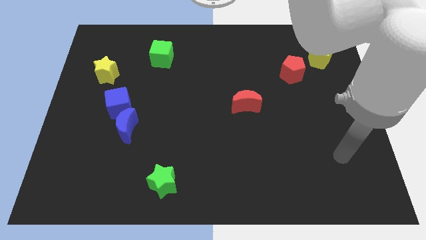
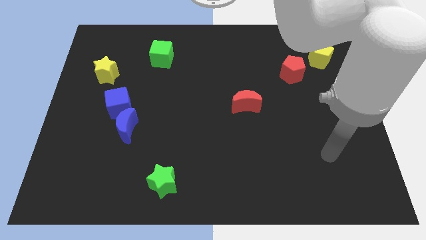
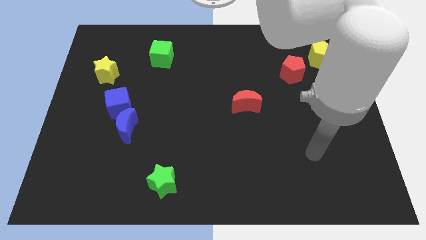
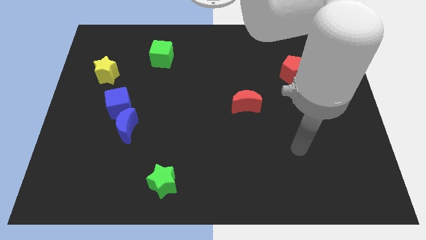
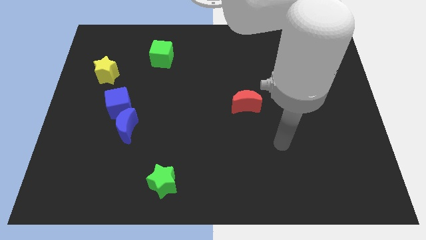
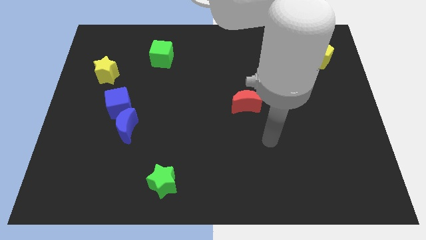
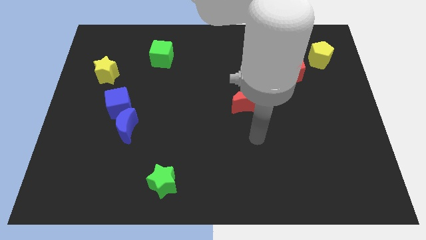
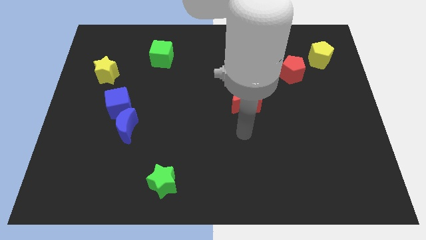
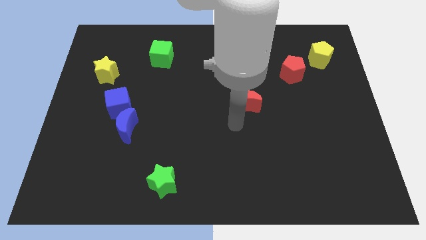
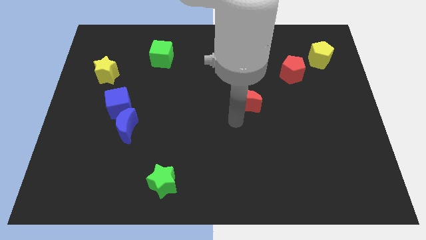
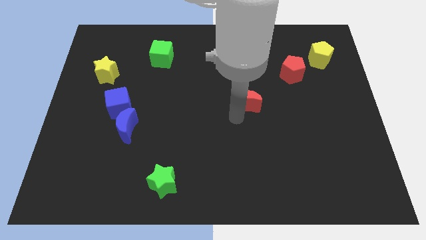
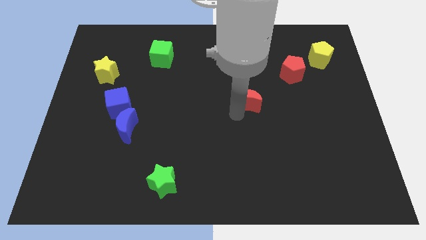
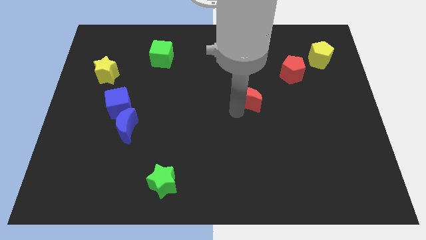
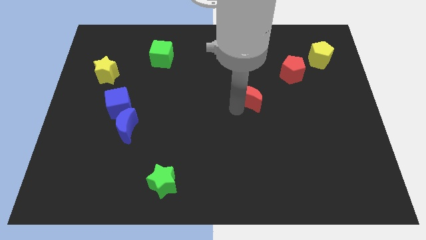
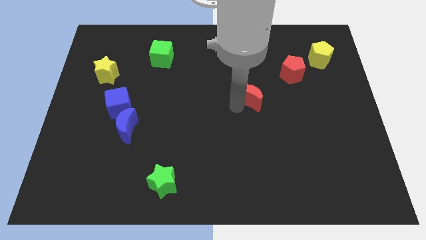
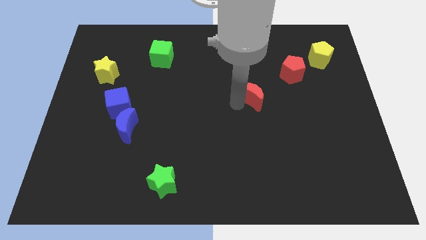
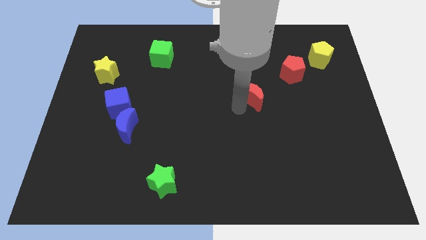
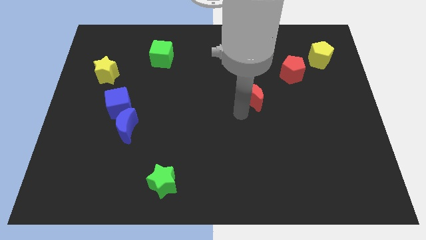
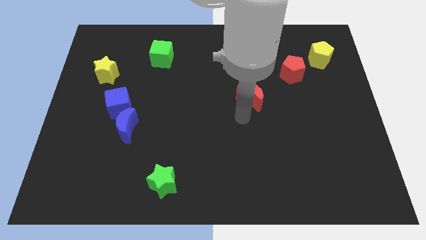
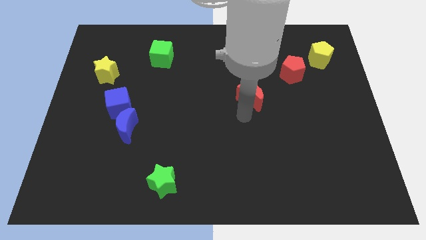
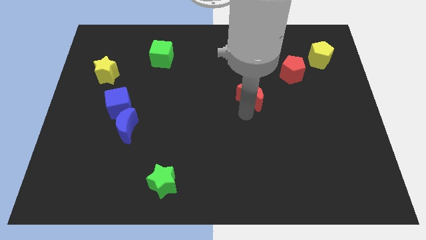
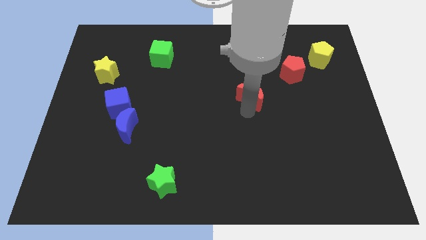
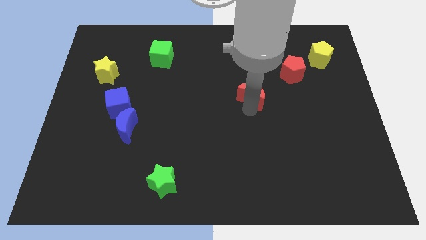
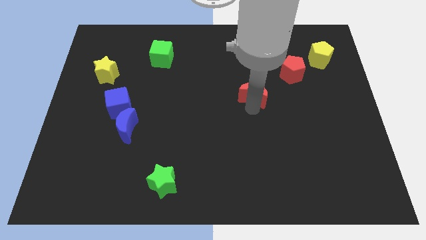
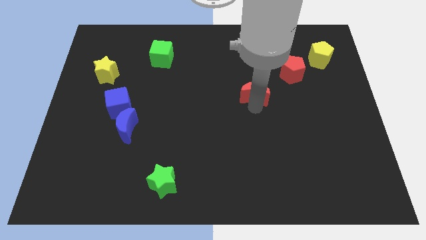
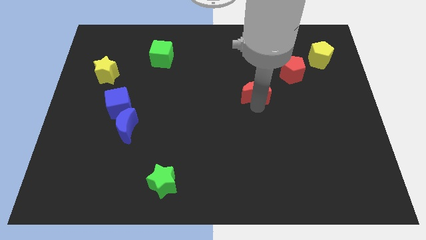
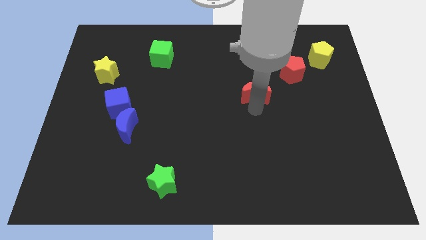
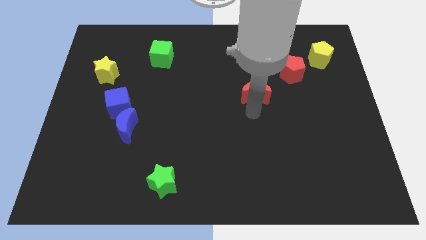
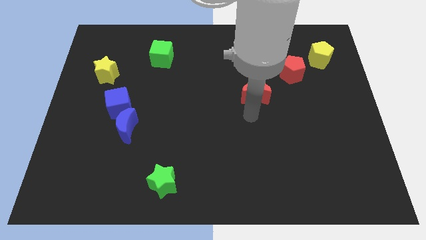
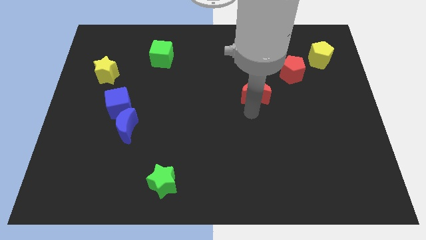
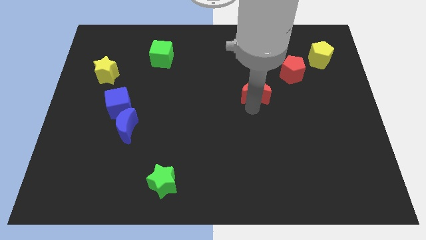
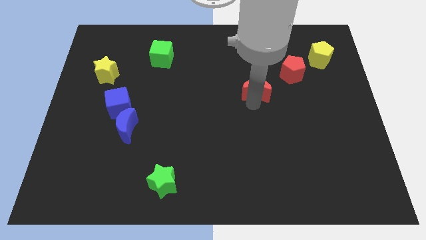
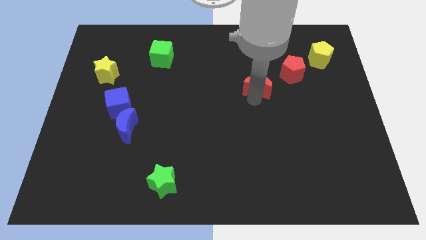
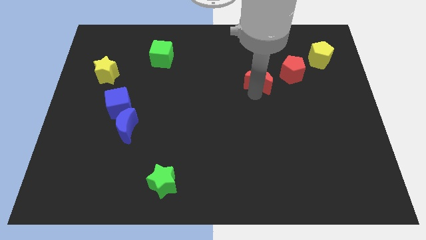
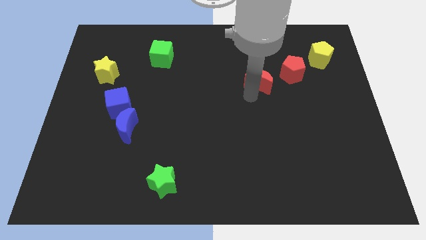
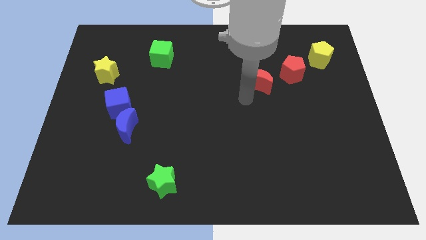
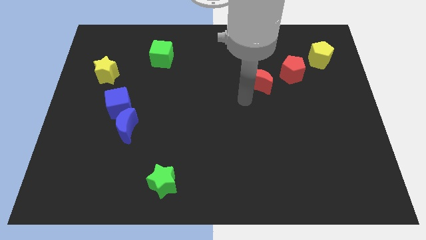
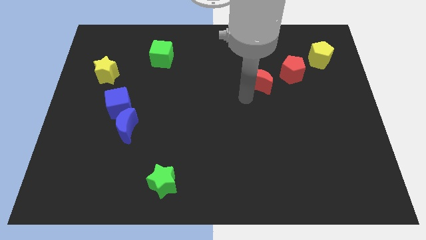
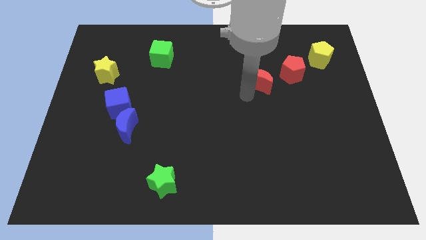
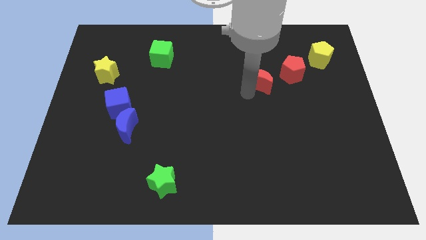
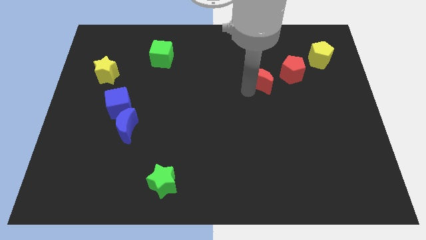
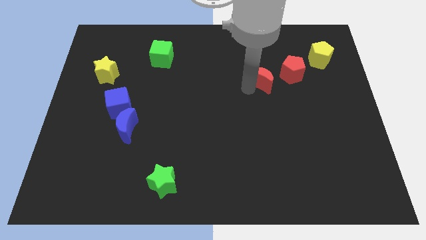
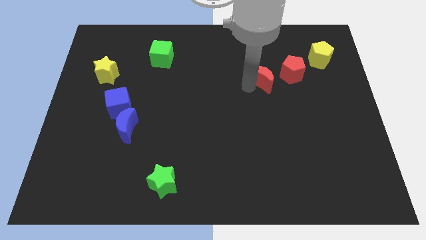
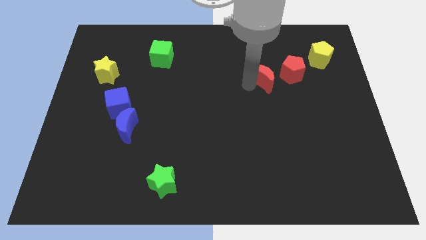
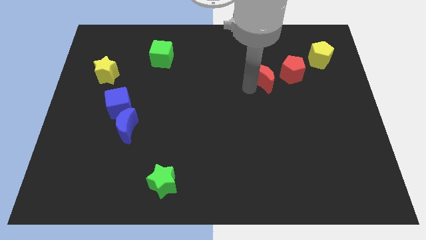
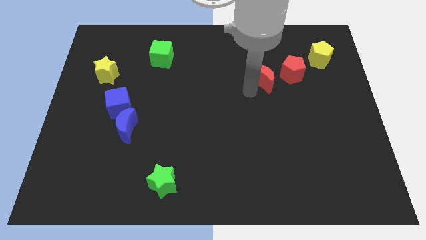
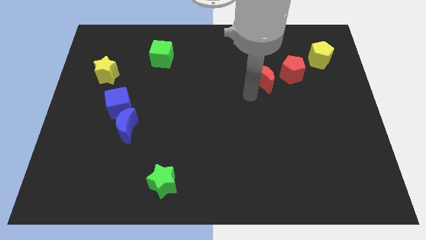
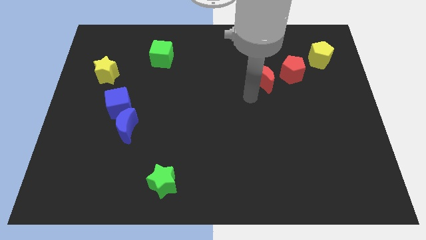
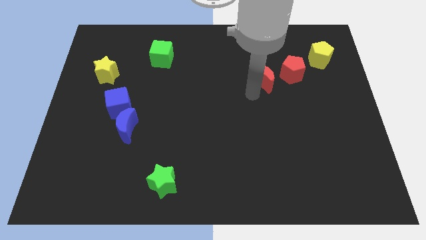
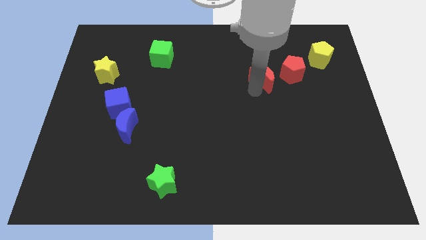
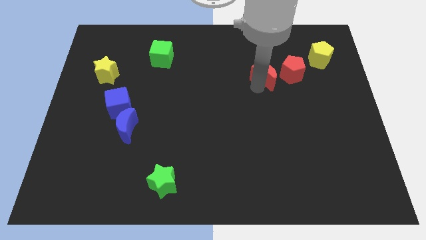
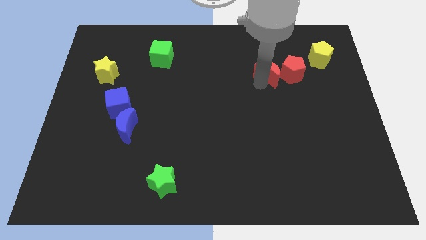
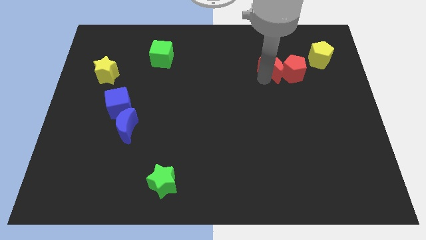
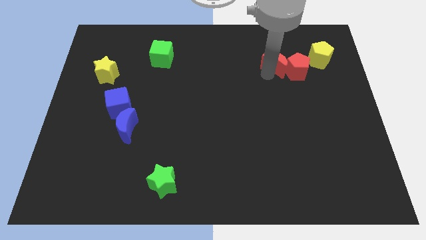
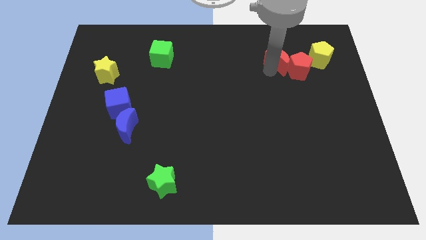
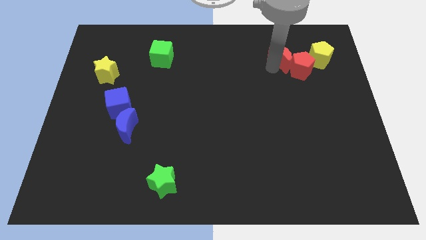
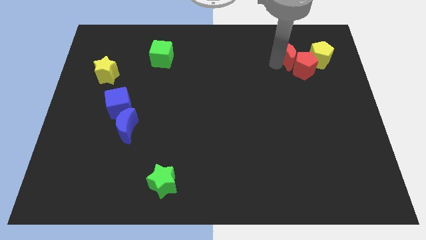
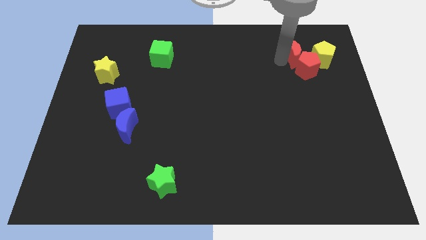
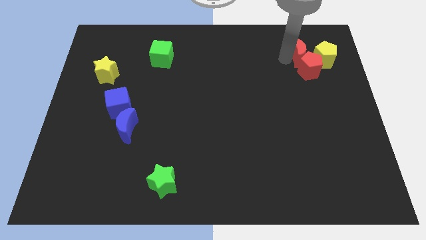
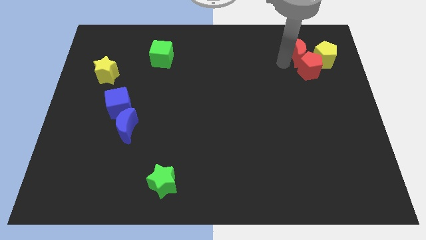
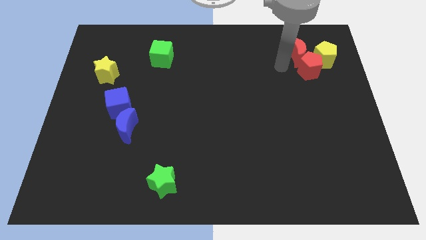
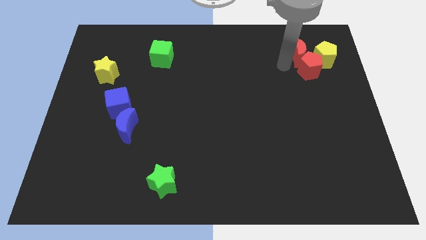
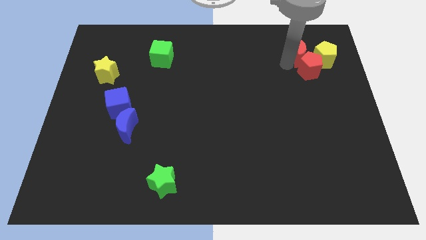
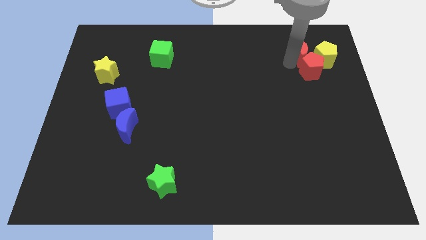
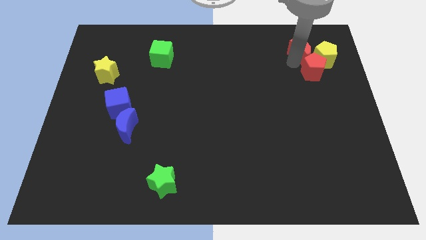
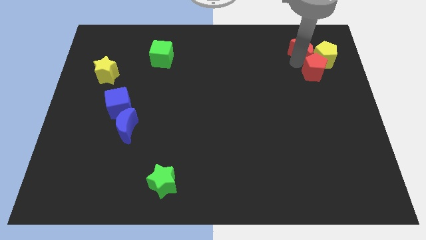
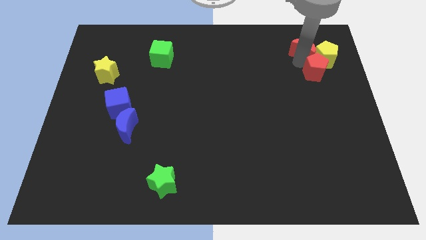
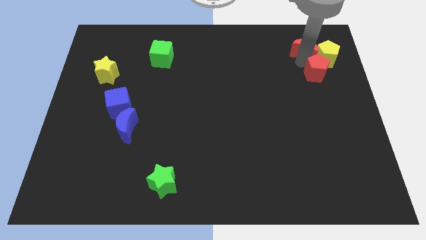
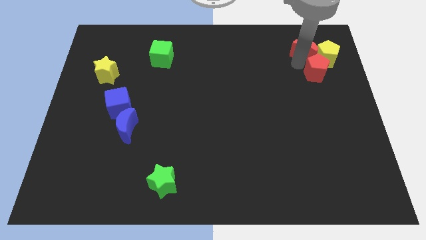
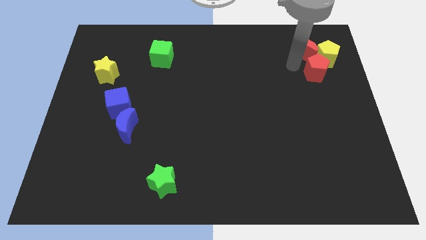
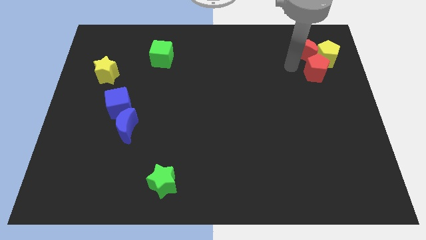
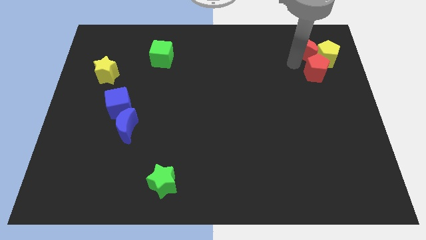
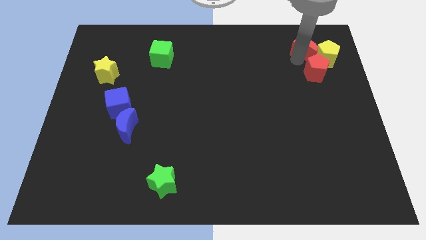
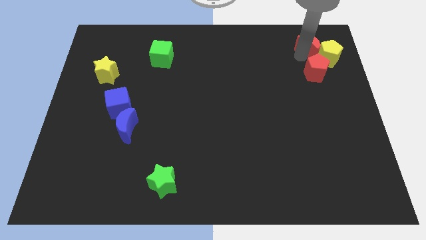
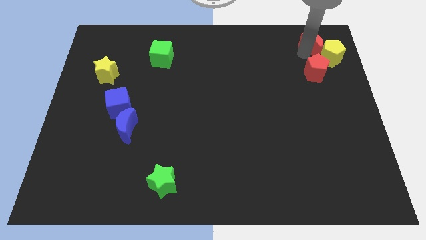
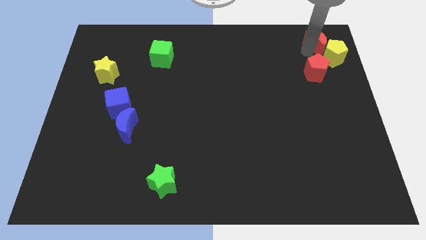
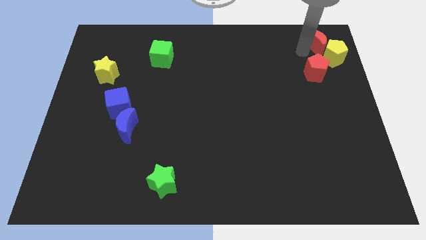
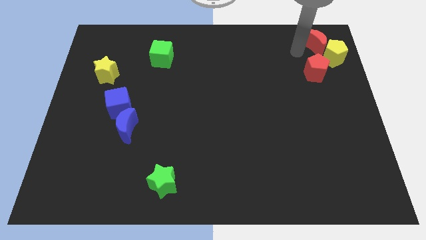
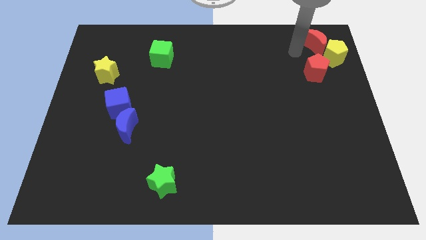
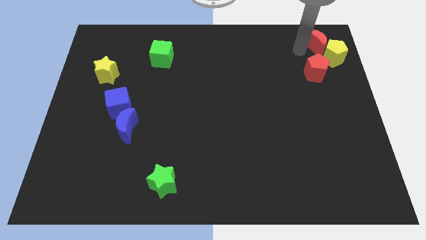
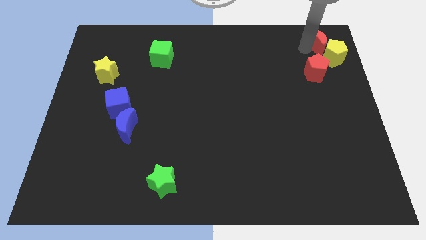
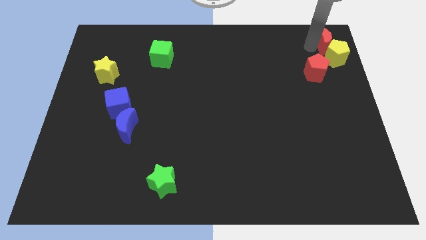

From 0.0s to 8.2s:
slide the red moon to the top right of the board
